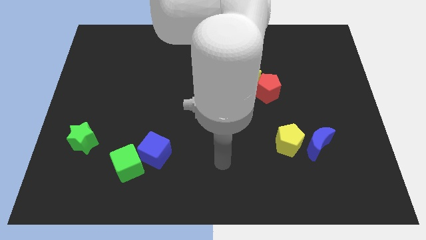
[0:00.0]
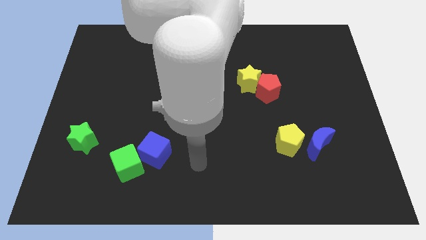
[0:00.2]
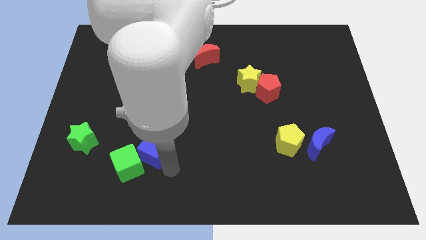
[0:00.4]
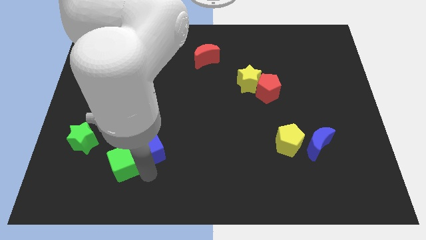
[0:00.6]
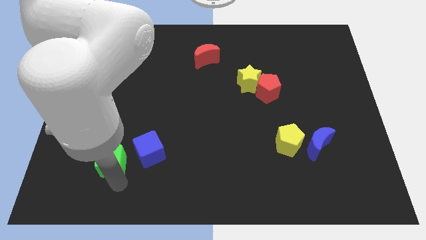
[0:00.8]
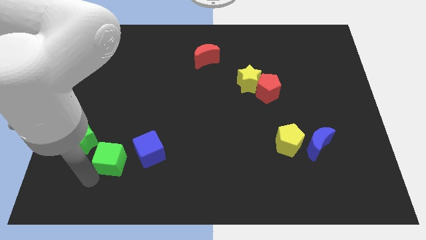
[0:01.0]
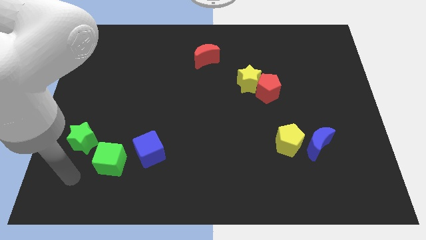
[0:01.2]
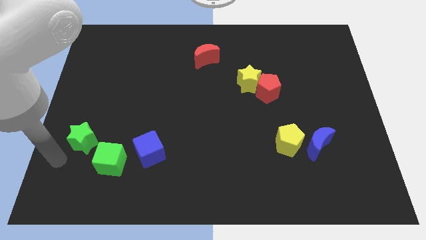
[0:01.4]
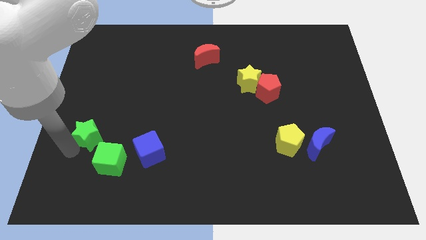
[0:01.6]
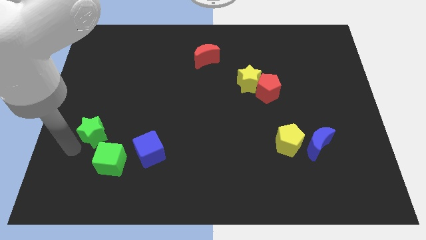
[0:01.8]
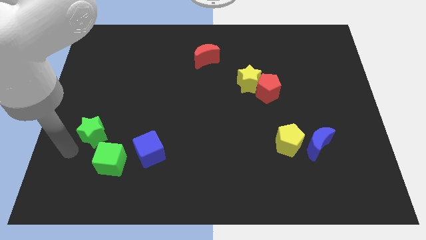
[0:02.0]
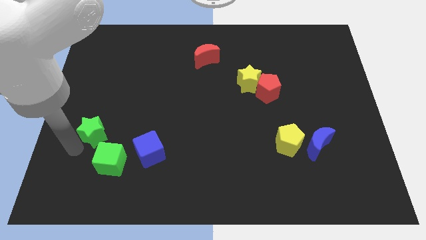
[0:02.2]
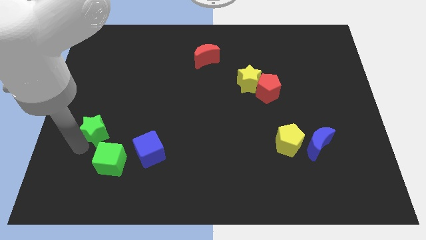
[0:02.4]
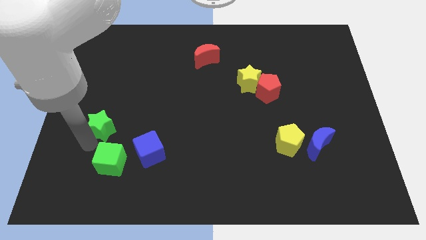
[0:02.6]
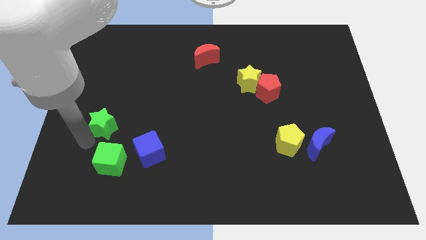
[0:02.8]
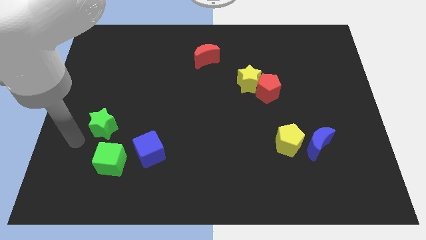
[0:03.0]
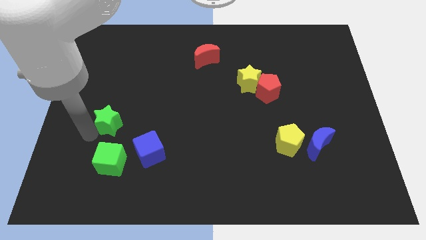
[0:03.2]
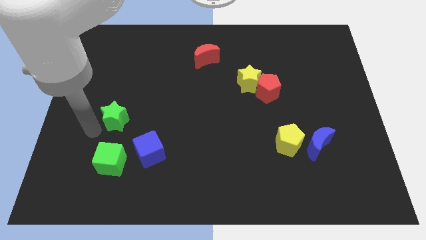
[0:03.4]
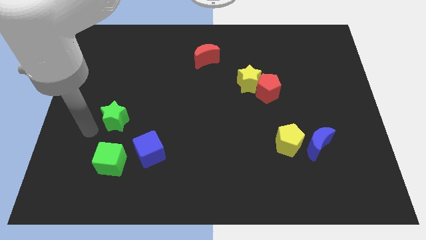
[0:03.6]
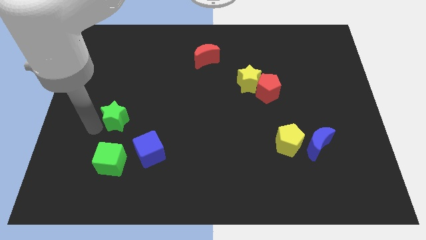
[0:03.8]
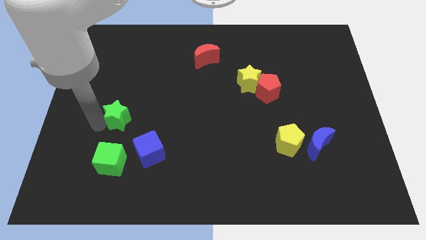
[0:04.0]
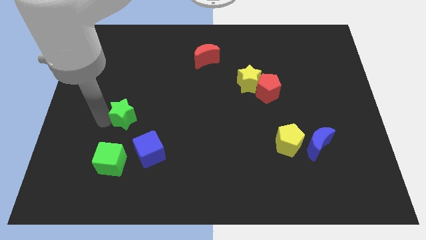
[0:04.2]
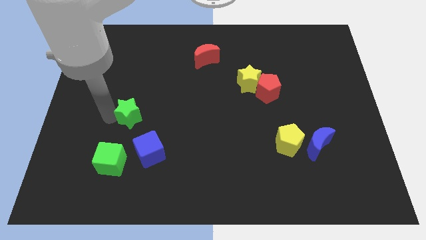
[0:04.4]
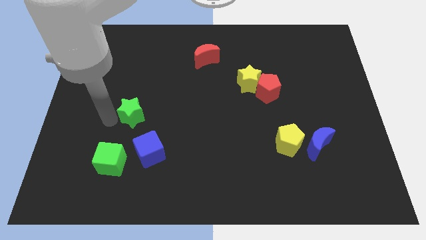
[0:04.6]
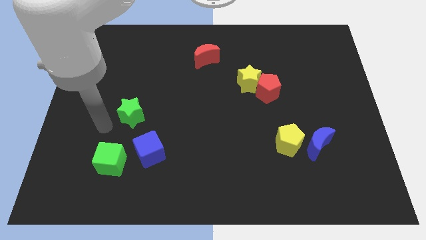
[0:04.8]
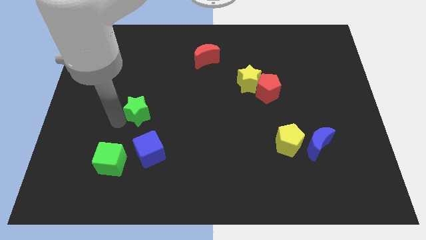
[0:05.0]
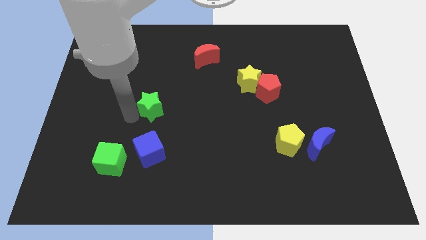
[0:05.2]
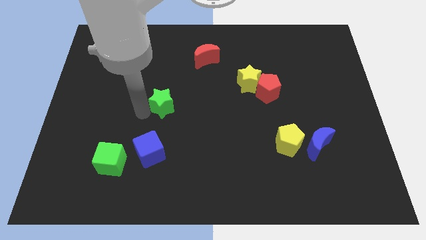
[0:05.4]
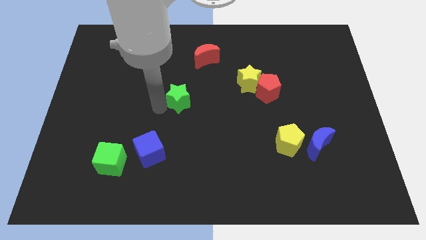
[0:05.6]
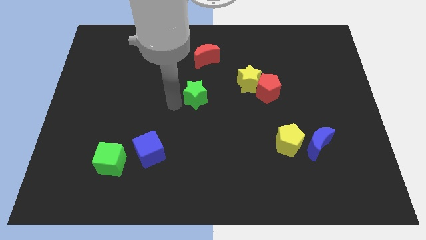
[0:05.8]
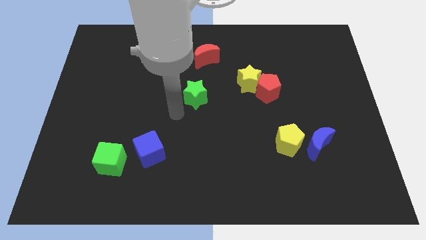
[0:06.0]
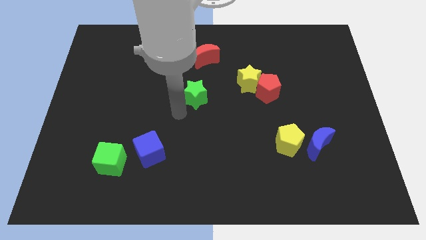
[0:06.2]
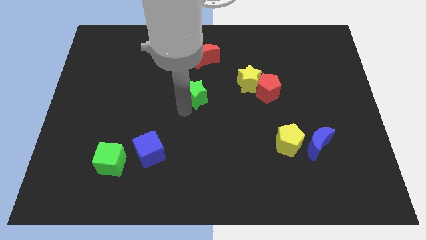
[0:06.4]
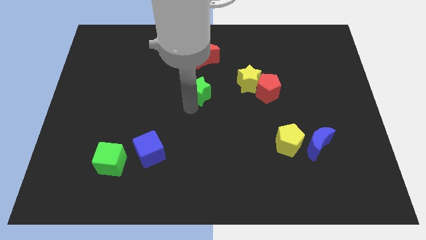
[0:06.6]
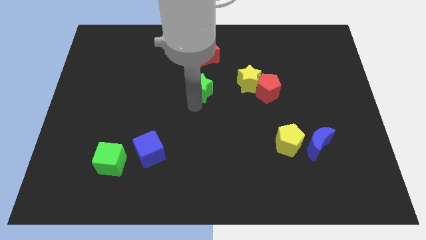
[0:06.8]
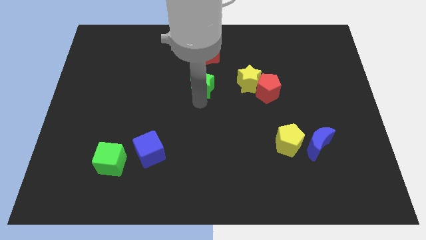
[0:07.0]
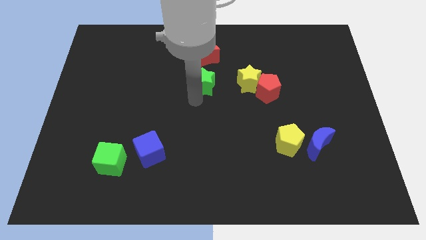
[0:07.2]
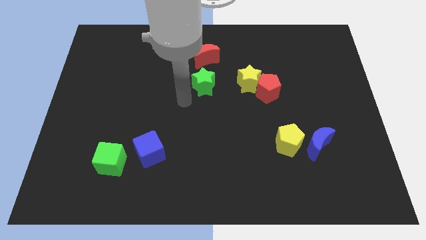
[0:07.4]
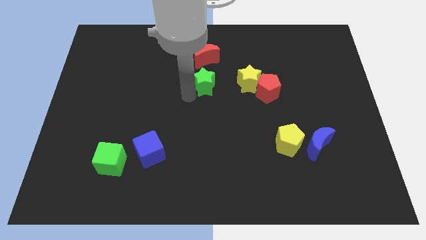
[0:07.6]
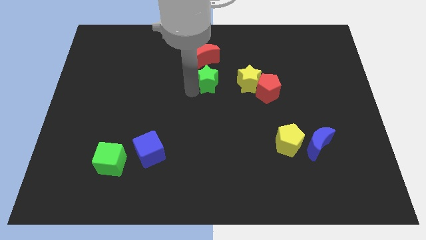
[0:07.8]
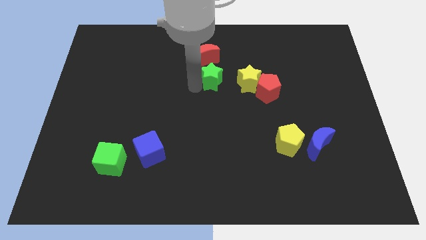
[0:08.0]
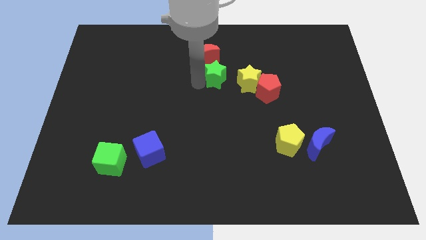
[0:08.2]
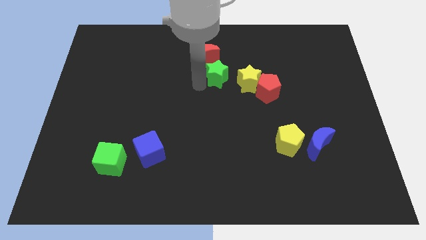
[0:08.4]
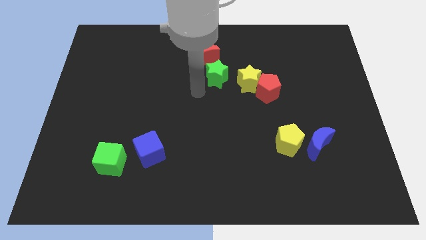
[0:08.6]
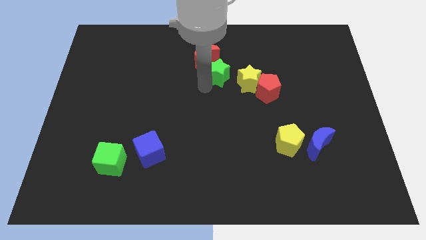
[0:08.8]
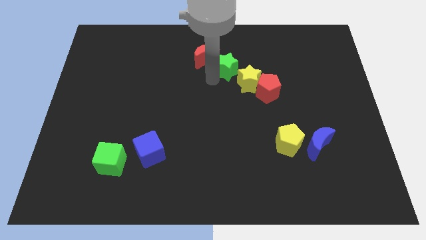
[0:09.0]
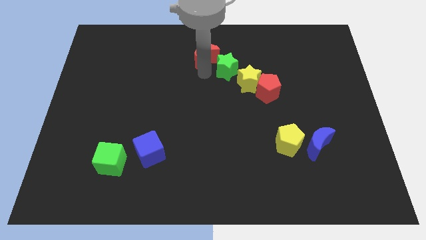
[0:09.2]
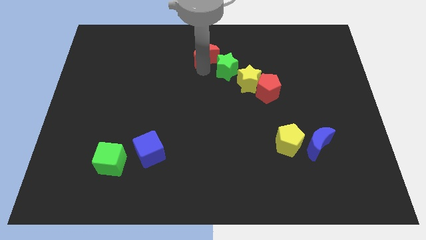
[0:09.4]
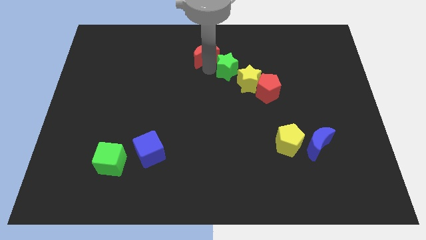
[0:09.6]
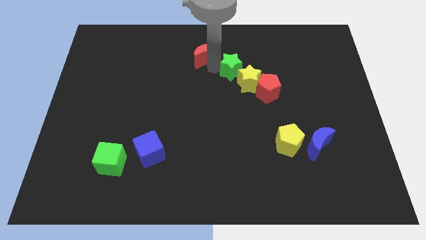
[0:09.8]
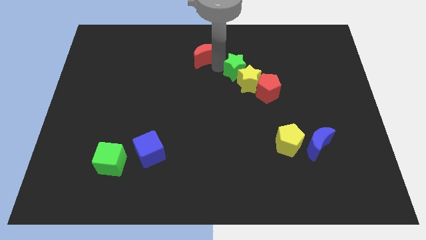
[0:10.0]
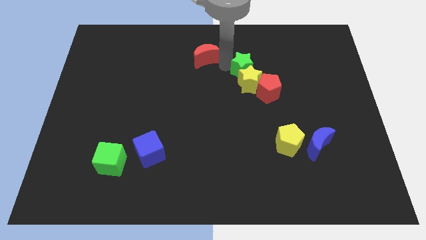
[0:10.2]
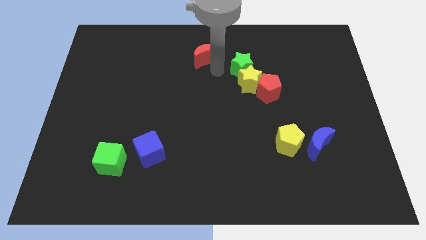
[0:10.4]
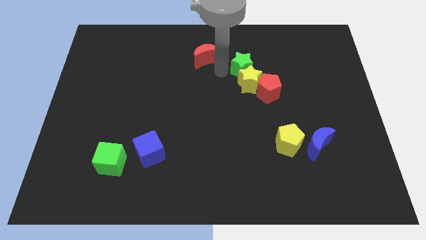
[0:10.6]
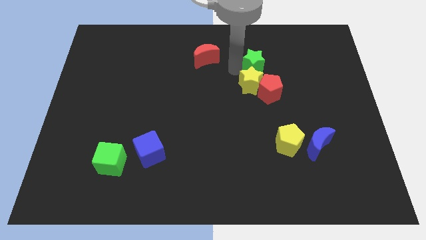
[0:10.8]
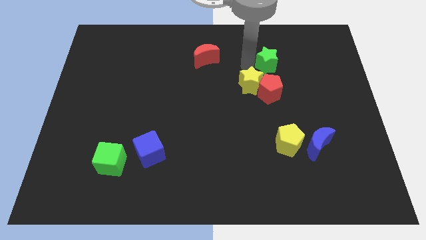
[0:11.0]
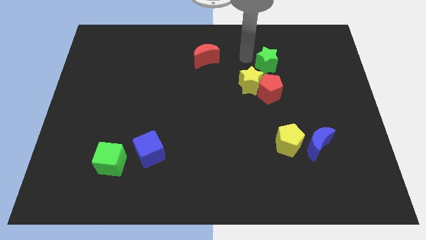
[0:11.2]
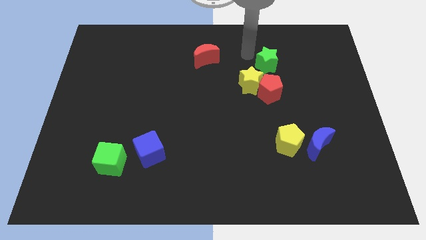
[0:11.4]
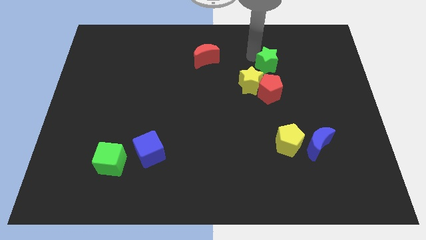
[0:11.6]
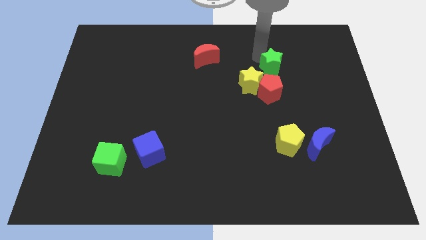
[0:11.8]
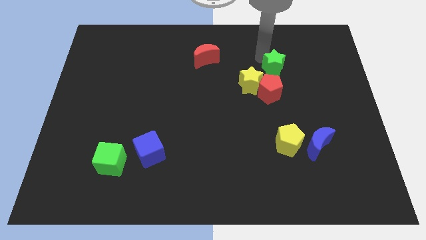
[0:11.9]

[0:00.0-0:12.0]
put the green star to the top right side of the red pentagon
